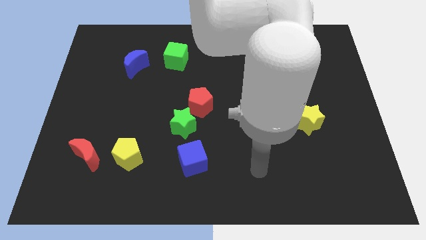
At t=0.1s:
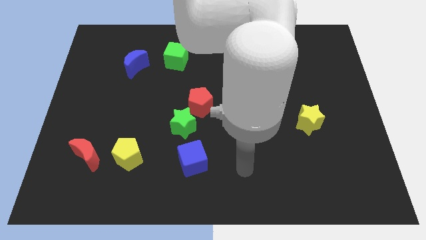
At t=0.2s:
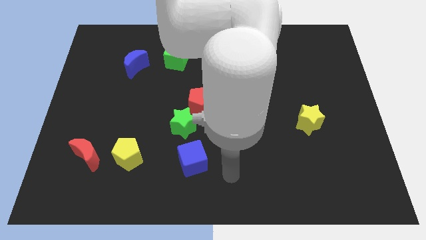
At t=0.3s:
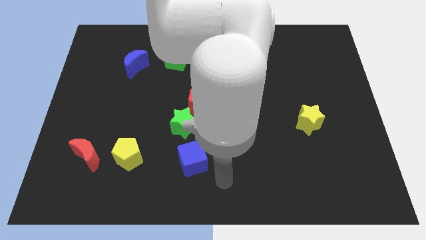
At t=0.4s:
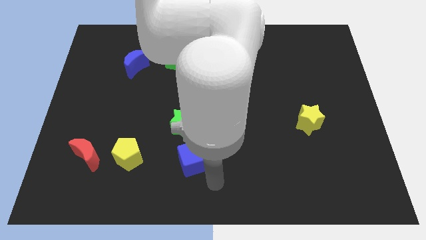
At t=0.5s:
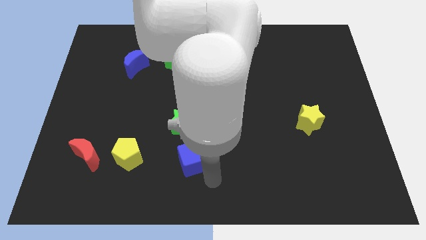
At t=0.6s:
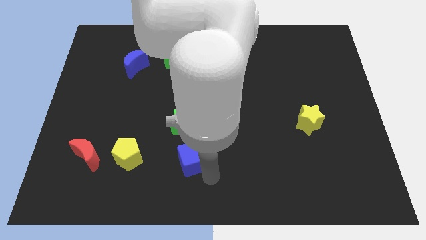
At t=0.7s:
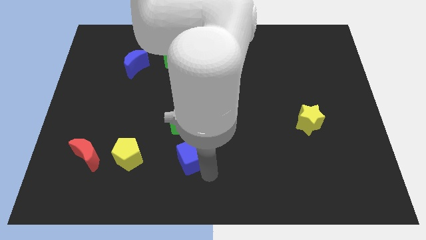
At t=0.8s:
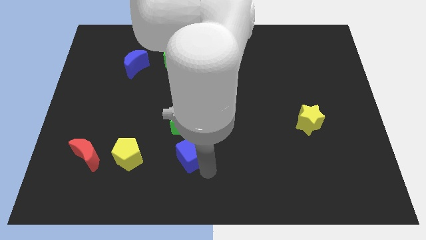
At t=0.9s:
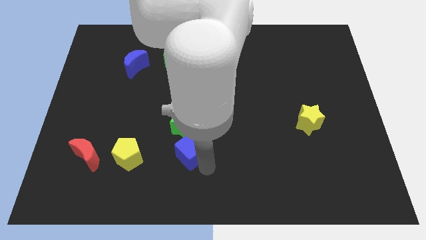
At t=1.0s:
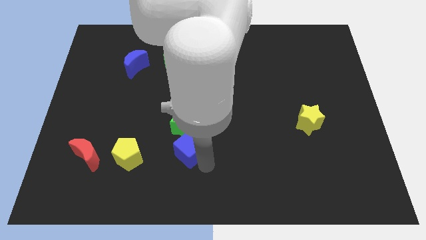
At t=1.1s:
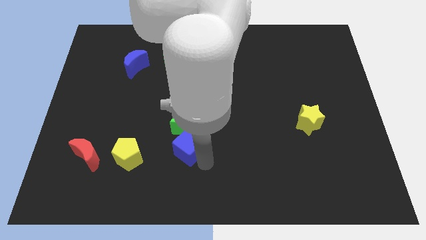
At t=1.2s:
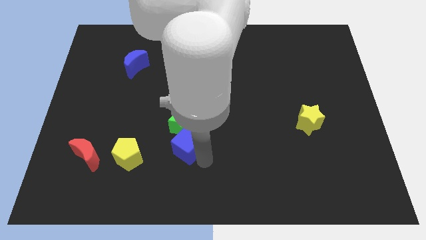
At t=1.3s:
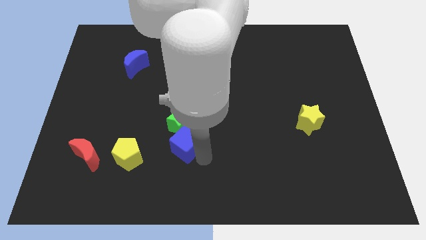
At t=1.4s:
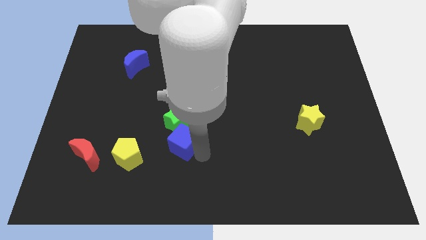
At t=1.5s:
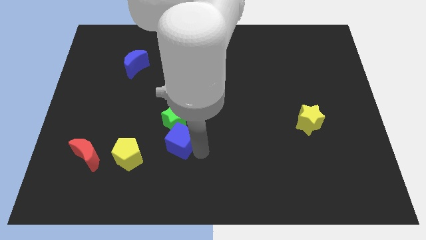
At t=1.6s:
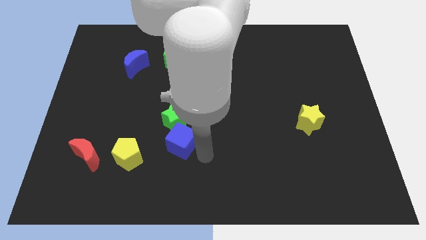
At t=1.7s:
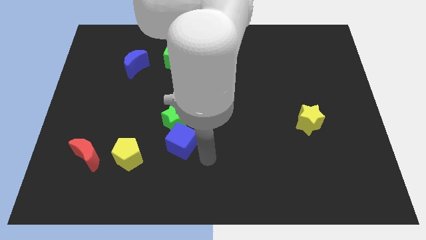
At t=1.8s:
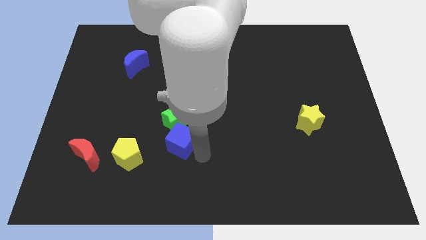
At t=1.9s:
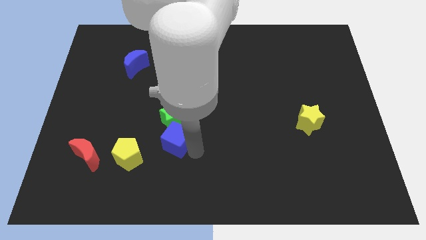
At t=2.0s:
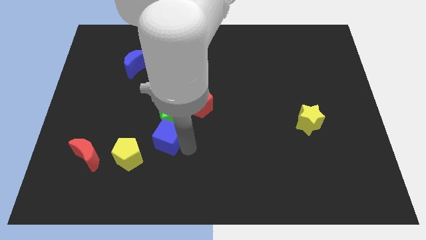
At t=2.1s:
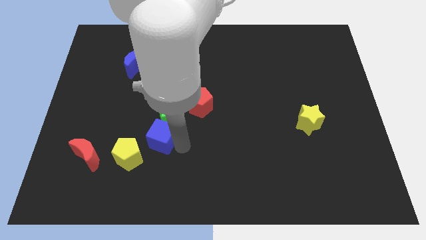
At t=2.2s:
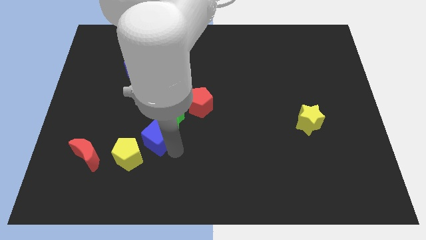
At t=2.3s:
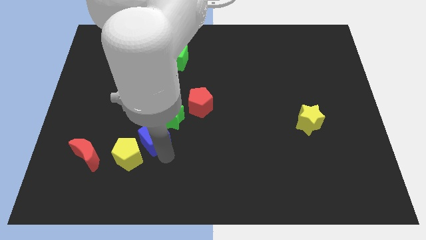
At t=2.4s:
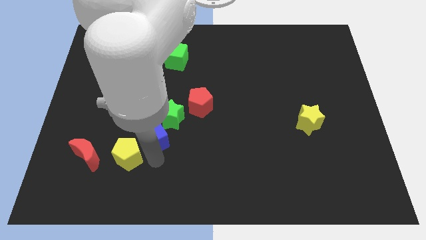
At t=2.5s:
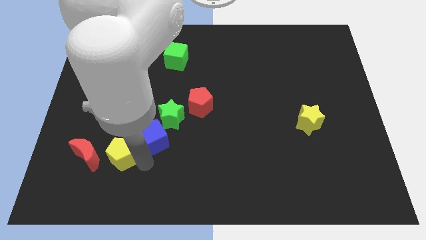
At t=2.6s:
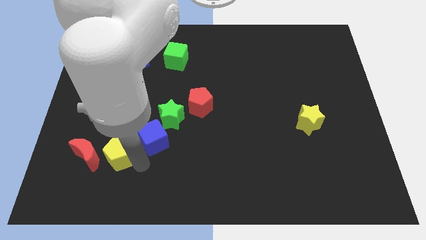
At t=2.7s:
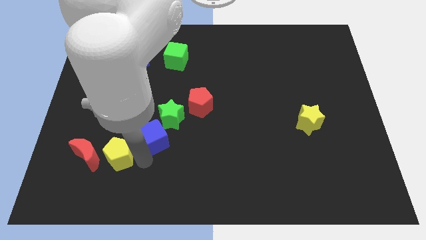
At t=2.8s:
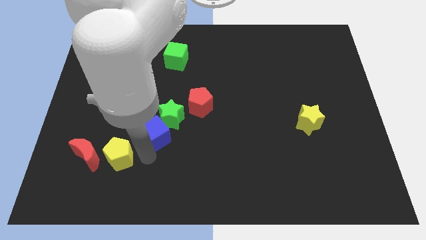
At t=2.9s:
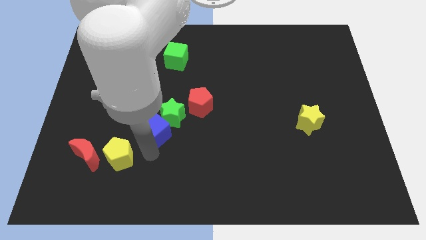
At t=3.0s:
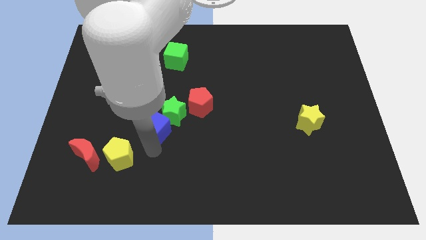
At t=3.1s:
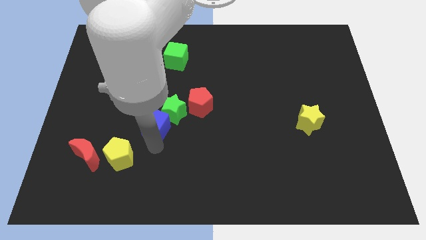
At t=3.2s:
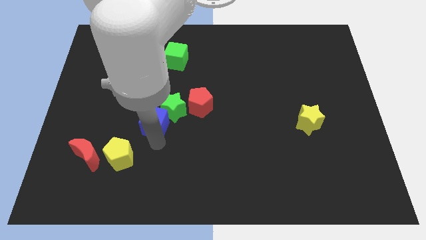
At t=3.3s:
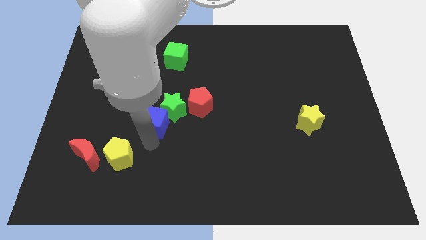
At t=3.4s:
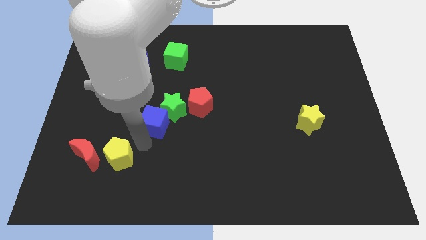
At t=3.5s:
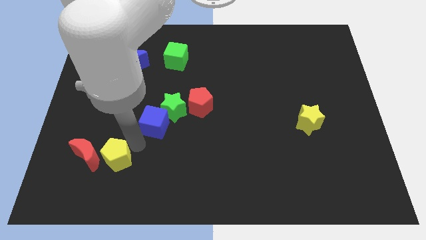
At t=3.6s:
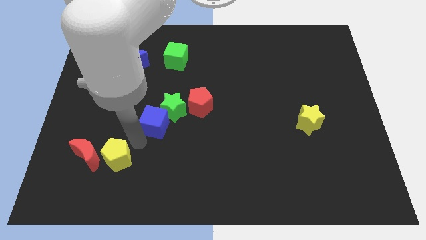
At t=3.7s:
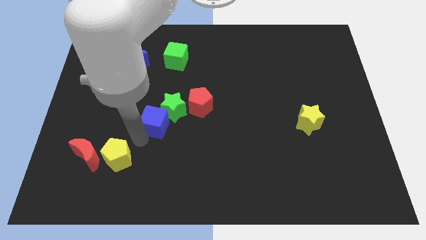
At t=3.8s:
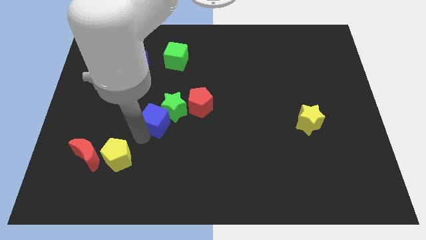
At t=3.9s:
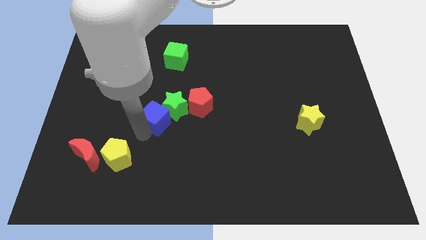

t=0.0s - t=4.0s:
slightly push the blue cube up

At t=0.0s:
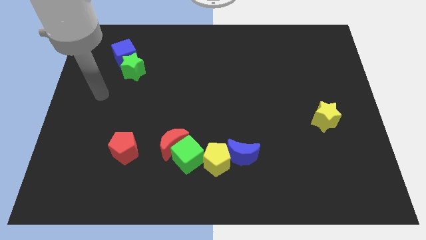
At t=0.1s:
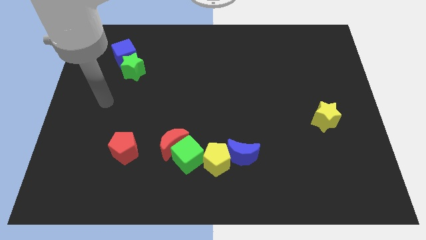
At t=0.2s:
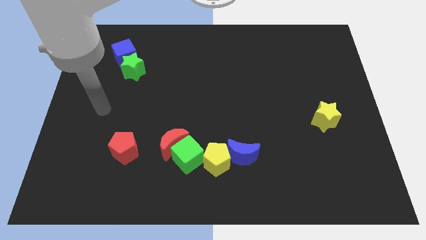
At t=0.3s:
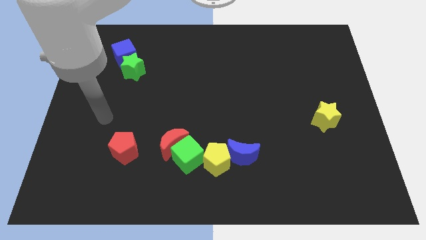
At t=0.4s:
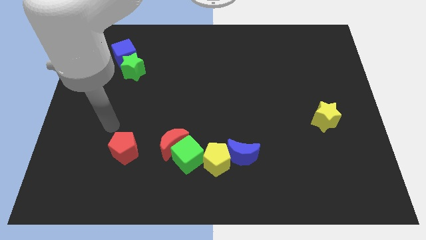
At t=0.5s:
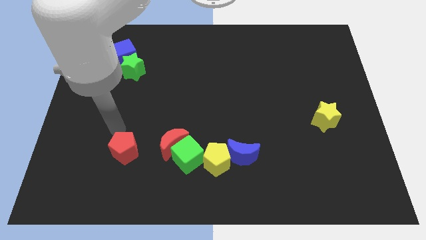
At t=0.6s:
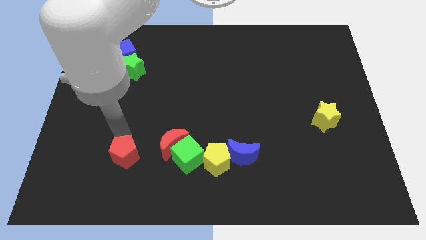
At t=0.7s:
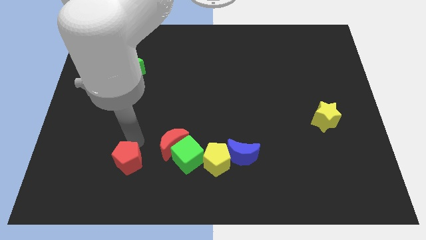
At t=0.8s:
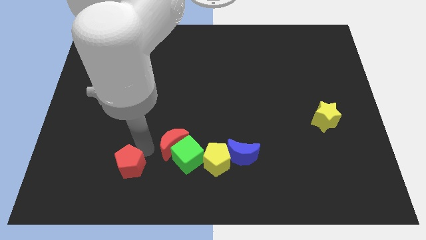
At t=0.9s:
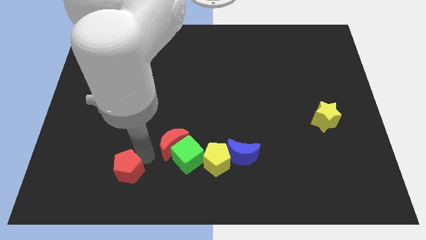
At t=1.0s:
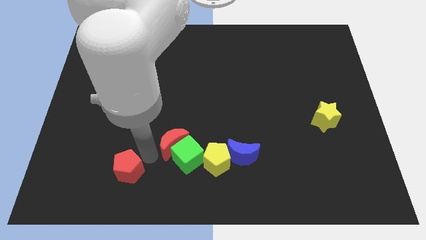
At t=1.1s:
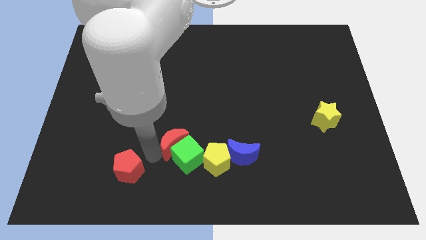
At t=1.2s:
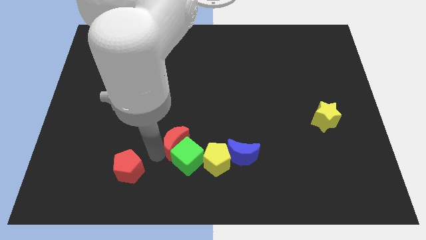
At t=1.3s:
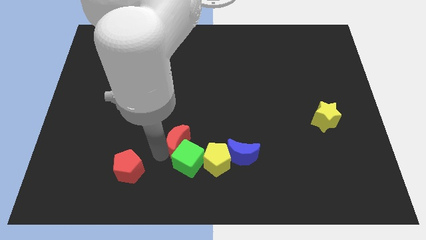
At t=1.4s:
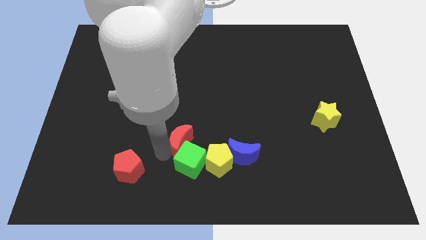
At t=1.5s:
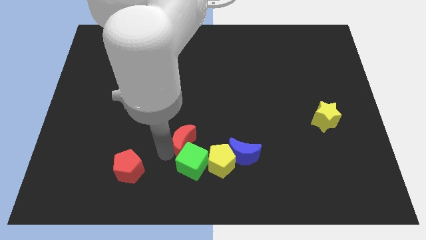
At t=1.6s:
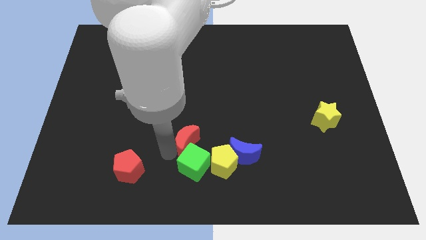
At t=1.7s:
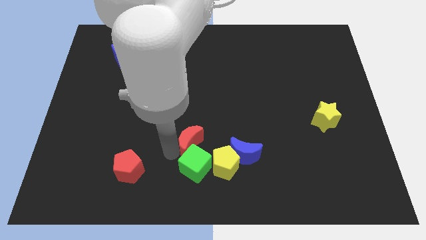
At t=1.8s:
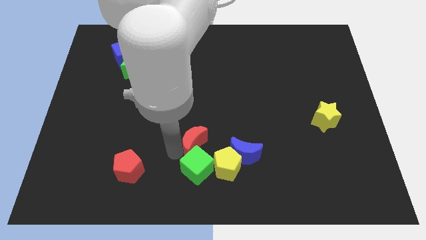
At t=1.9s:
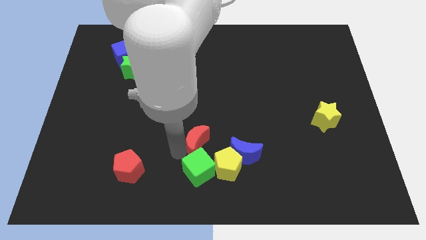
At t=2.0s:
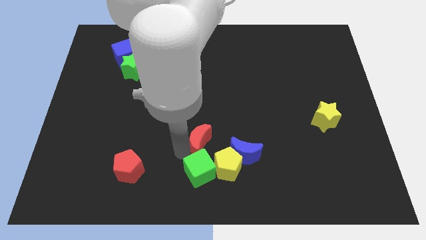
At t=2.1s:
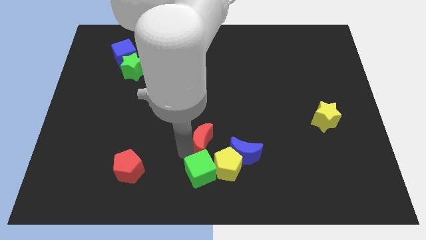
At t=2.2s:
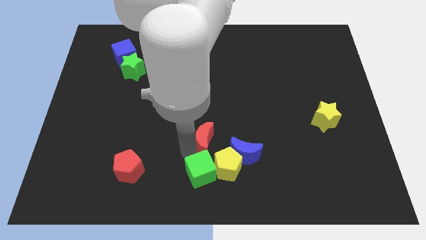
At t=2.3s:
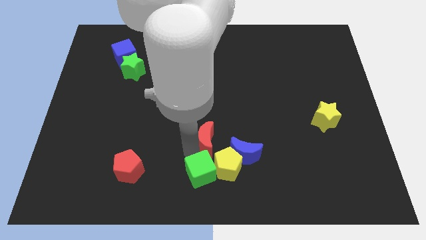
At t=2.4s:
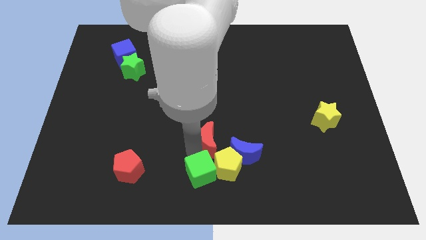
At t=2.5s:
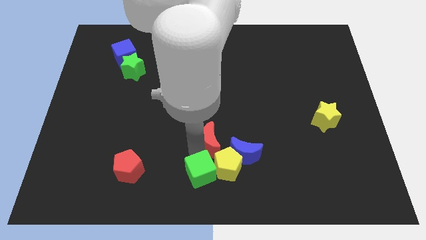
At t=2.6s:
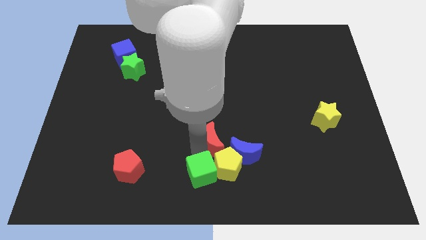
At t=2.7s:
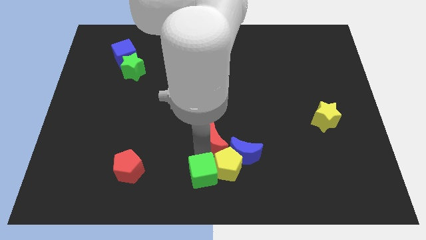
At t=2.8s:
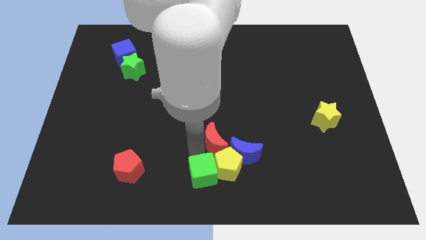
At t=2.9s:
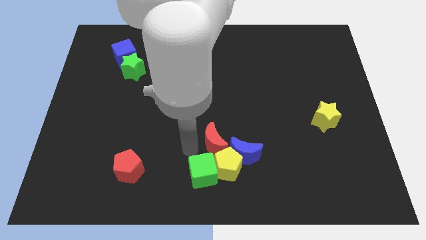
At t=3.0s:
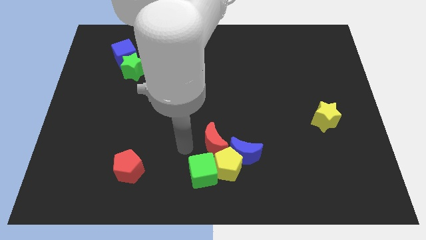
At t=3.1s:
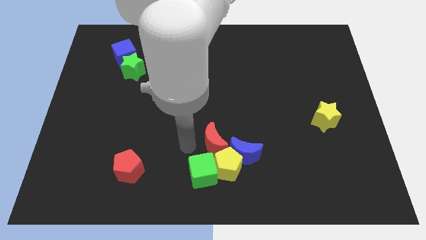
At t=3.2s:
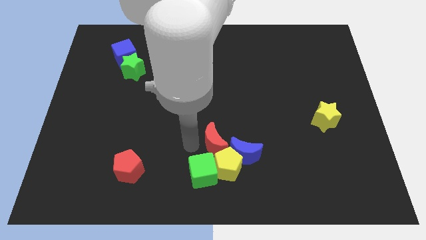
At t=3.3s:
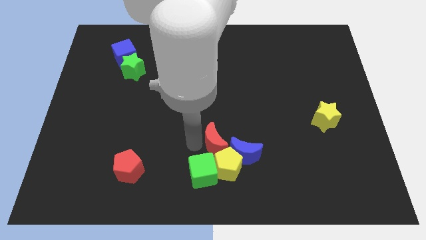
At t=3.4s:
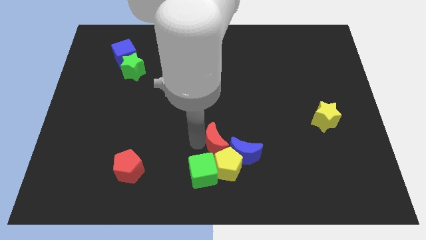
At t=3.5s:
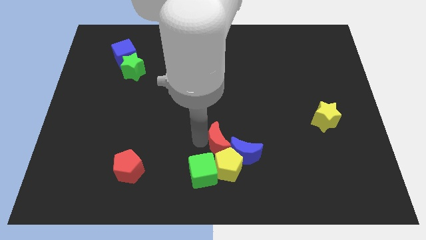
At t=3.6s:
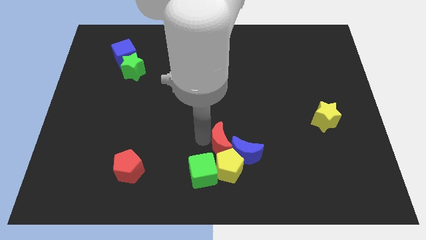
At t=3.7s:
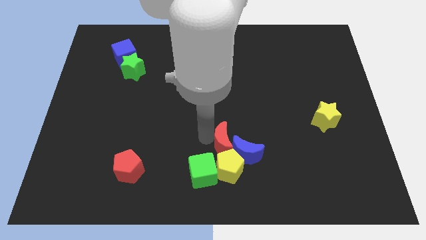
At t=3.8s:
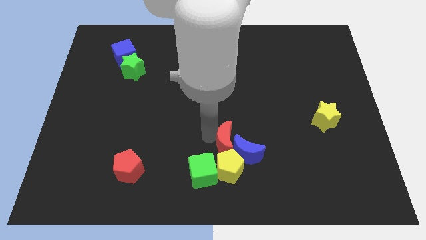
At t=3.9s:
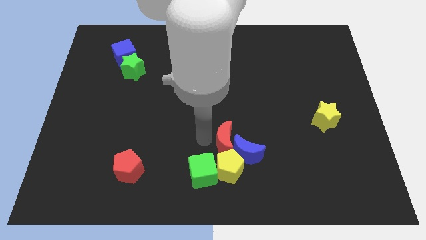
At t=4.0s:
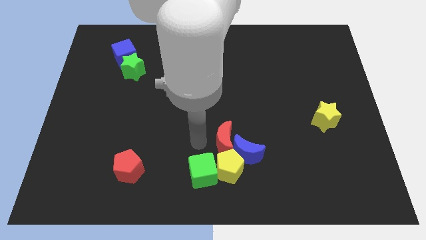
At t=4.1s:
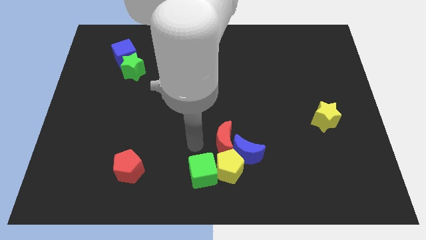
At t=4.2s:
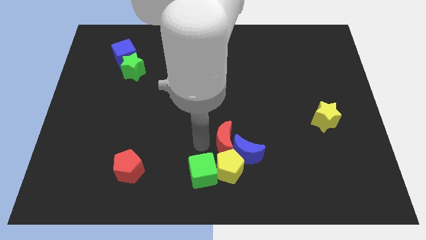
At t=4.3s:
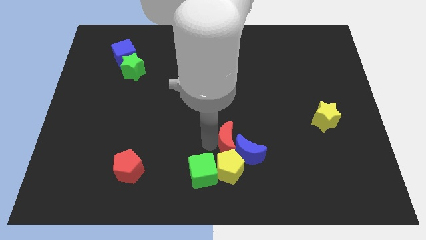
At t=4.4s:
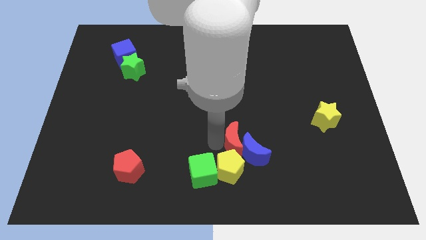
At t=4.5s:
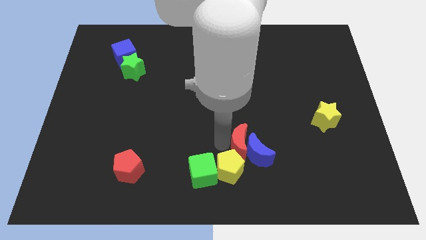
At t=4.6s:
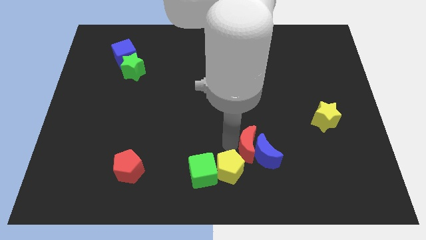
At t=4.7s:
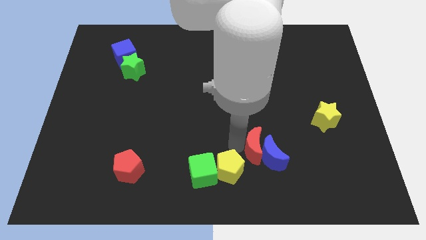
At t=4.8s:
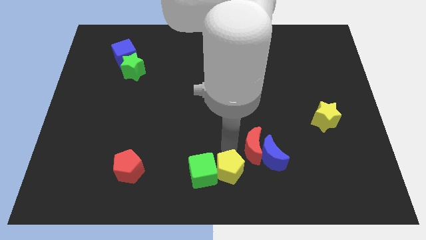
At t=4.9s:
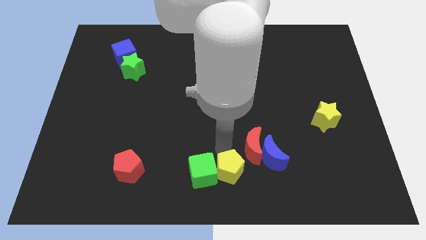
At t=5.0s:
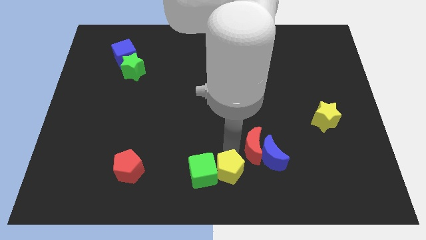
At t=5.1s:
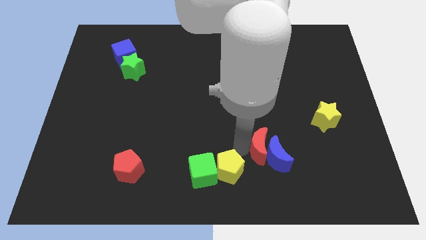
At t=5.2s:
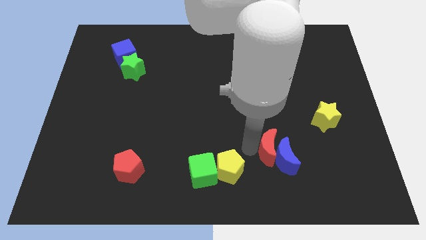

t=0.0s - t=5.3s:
push the red moon to the right
